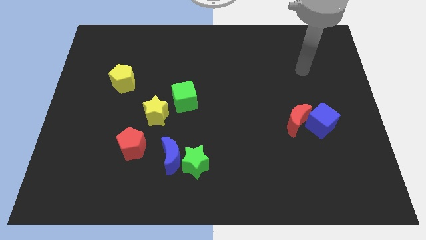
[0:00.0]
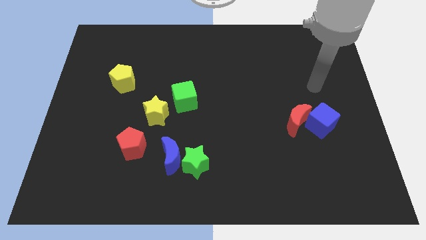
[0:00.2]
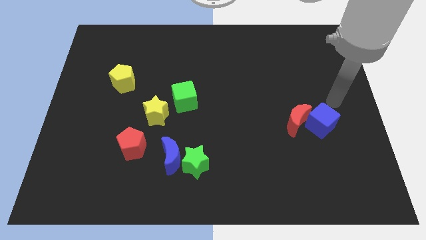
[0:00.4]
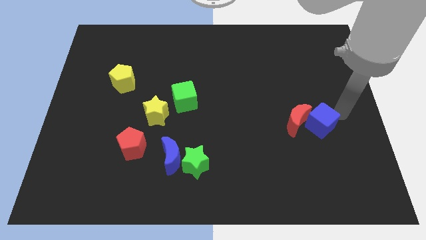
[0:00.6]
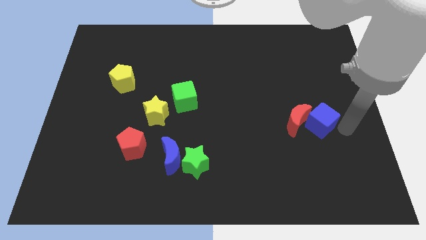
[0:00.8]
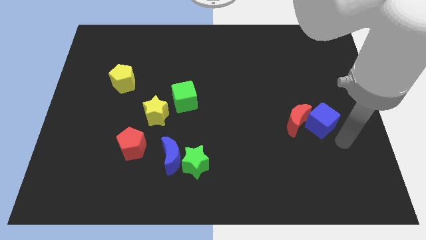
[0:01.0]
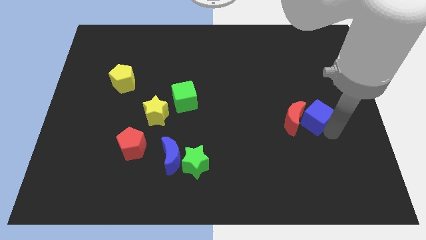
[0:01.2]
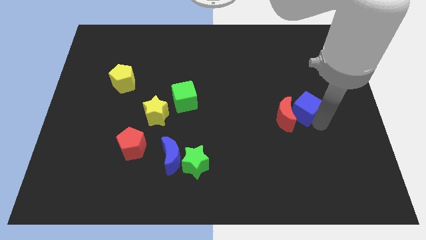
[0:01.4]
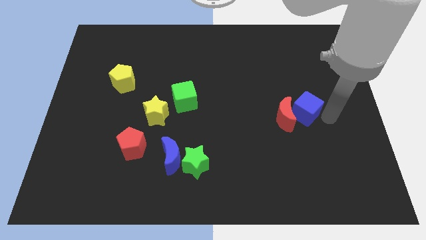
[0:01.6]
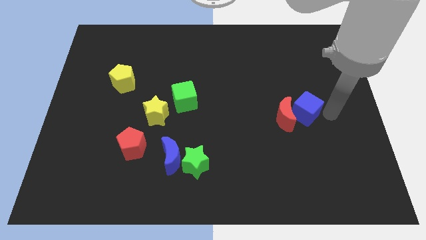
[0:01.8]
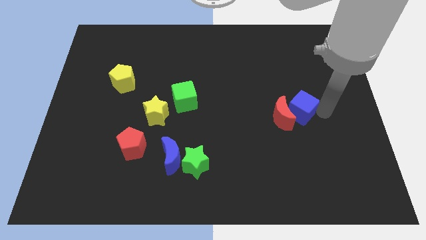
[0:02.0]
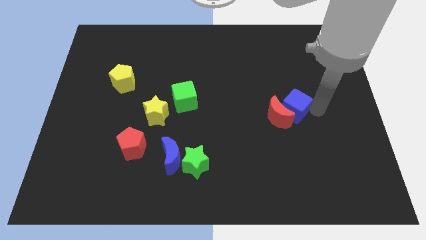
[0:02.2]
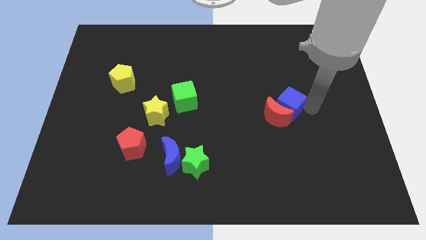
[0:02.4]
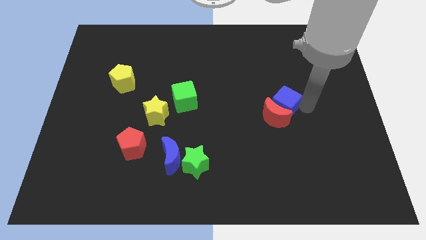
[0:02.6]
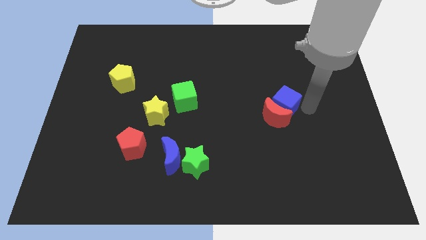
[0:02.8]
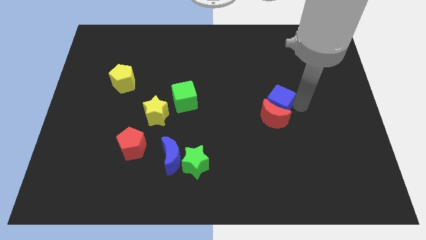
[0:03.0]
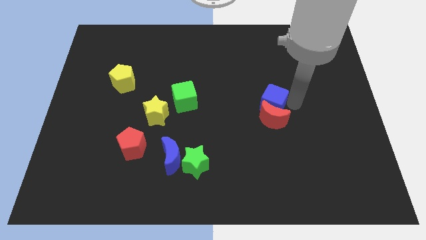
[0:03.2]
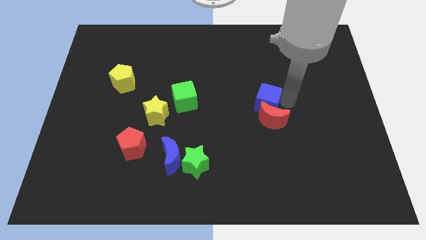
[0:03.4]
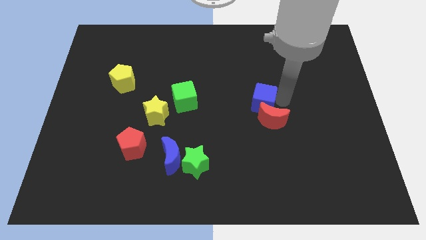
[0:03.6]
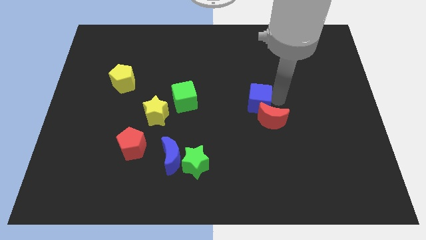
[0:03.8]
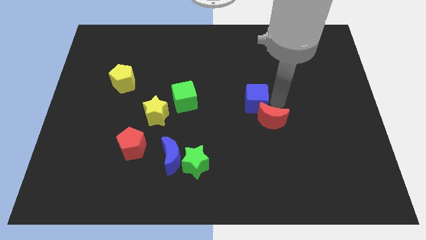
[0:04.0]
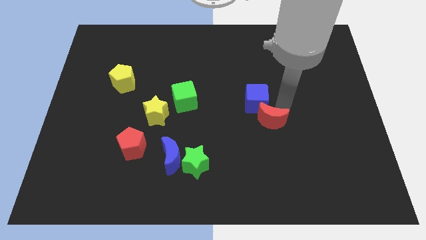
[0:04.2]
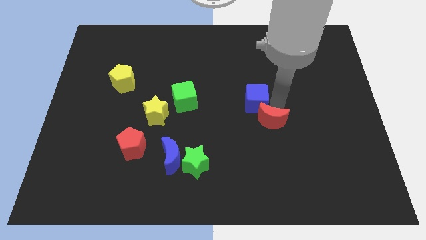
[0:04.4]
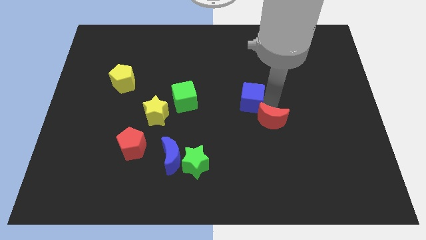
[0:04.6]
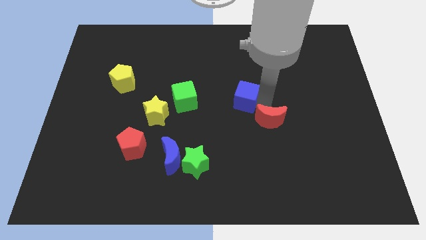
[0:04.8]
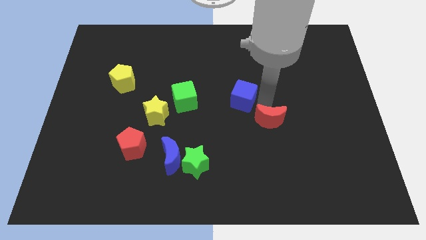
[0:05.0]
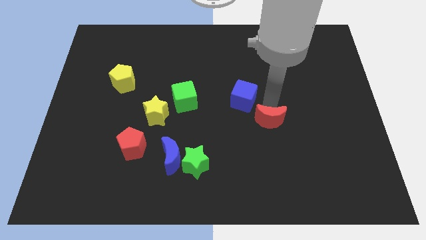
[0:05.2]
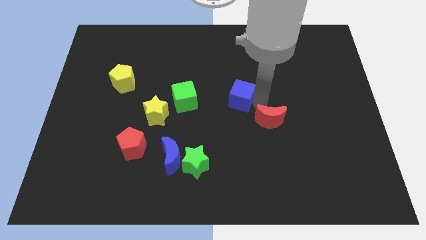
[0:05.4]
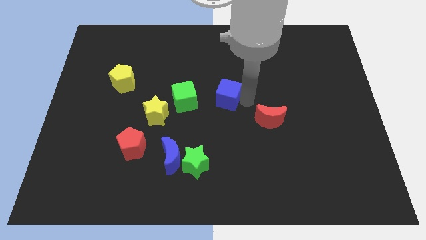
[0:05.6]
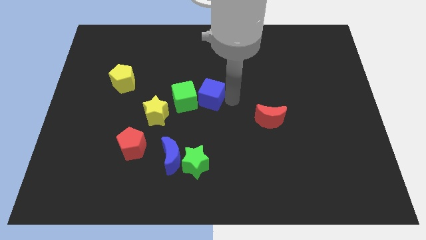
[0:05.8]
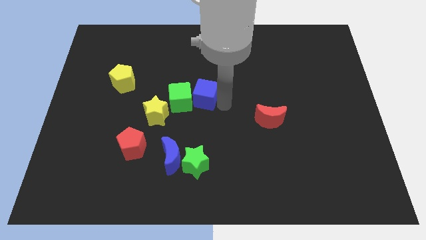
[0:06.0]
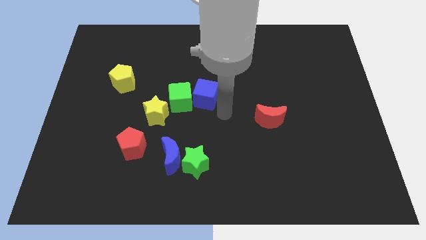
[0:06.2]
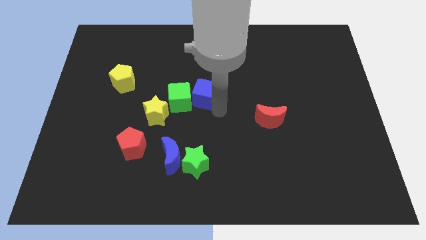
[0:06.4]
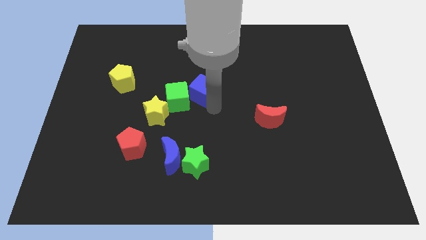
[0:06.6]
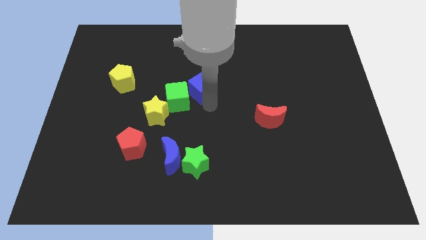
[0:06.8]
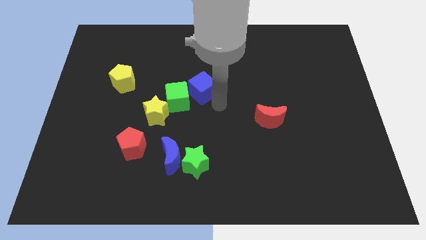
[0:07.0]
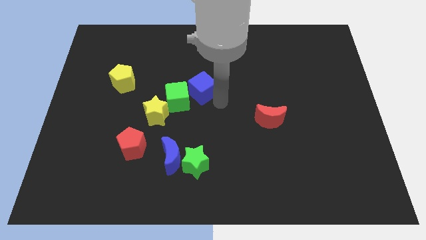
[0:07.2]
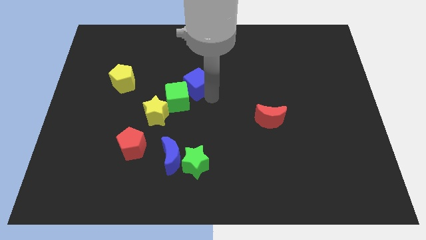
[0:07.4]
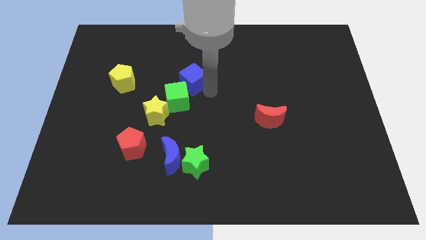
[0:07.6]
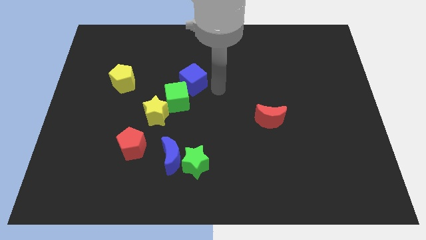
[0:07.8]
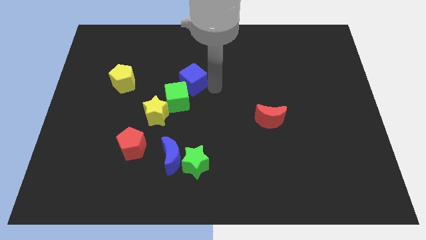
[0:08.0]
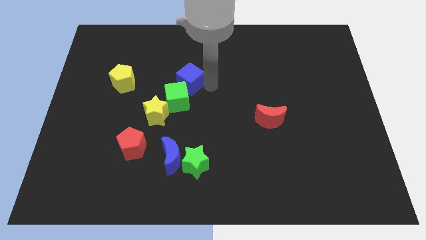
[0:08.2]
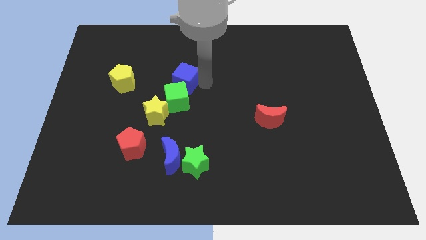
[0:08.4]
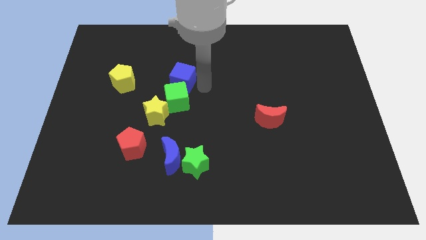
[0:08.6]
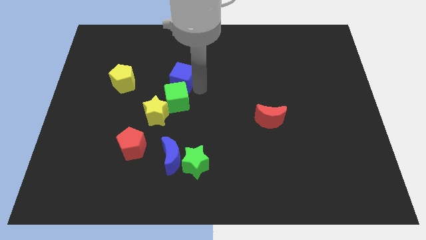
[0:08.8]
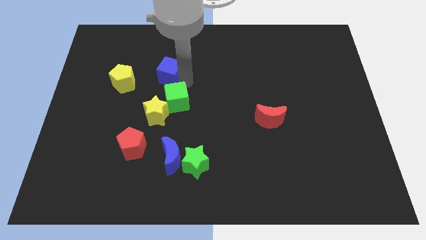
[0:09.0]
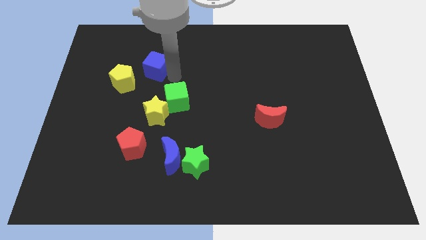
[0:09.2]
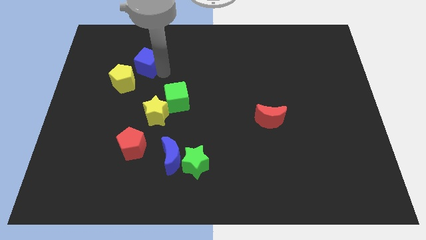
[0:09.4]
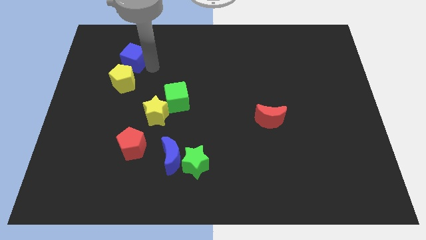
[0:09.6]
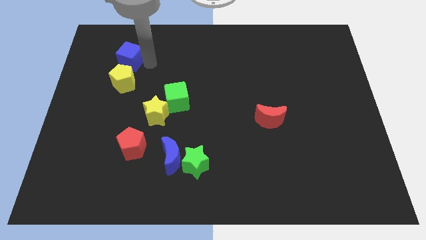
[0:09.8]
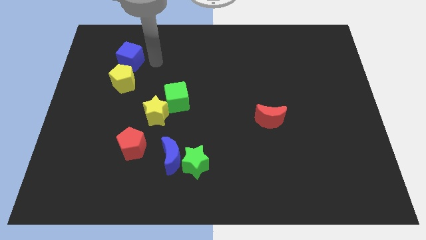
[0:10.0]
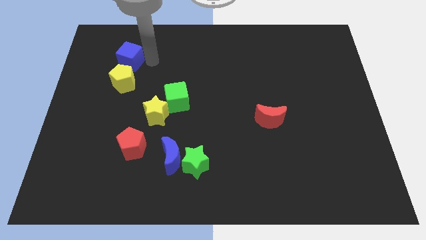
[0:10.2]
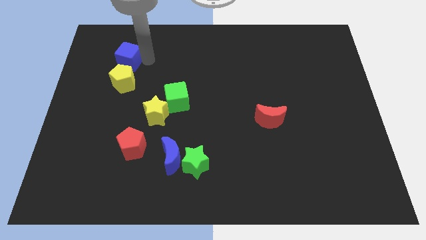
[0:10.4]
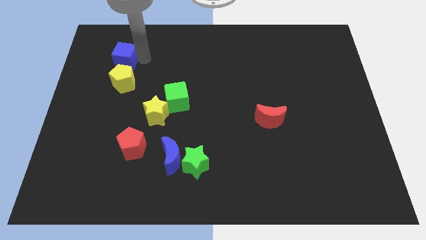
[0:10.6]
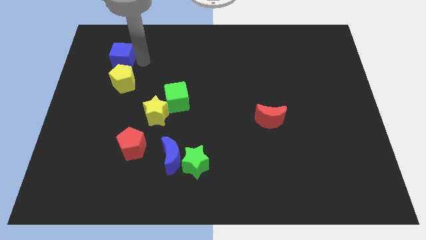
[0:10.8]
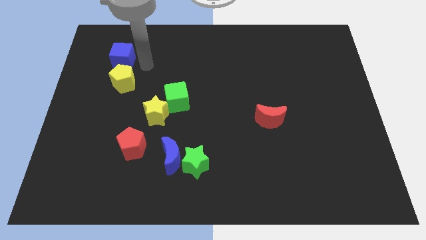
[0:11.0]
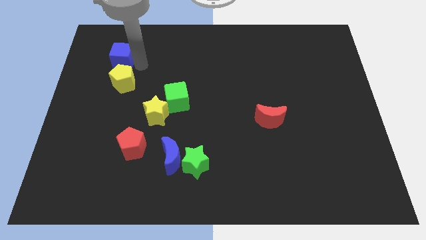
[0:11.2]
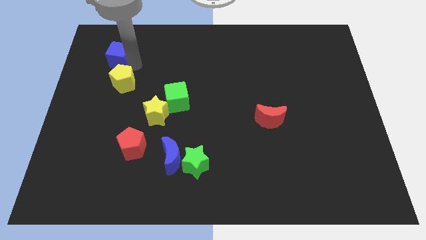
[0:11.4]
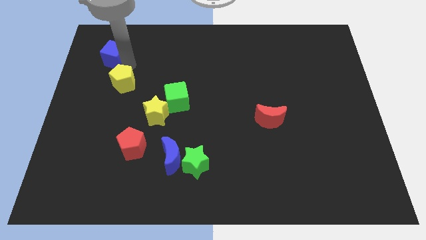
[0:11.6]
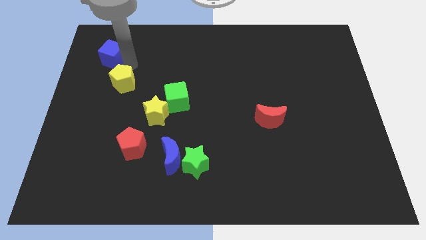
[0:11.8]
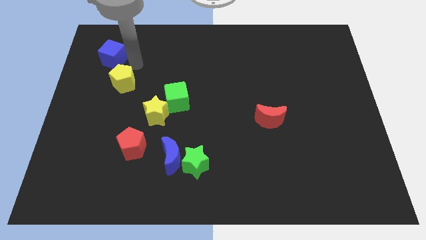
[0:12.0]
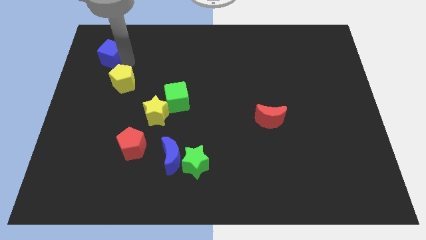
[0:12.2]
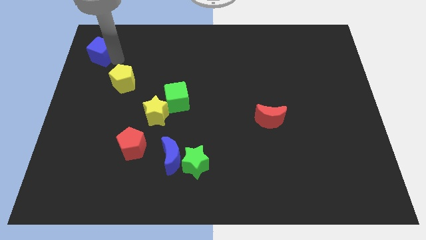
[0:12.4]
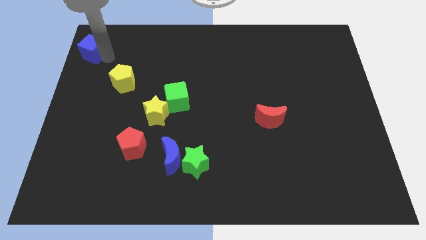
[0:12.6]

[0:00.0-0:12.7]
move the blue cube to the top left

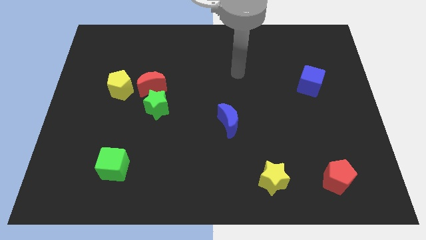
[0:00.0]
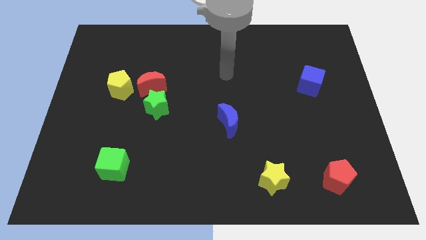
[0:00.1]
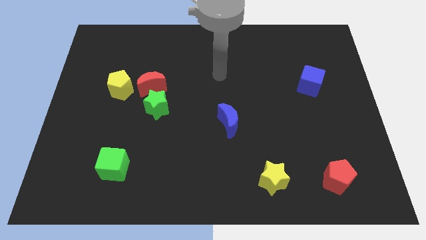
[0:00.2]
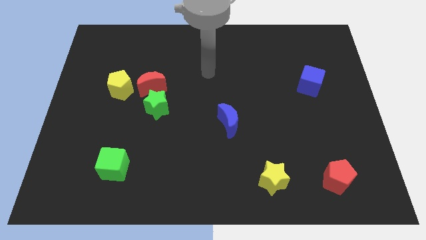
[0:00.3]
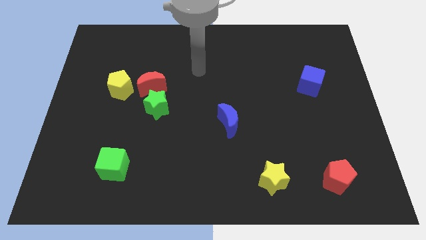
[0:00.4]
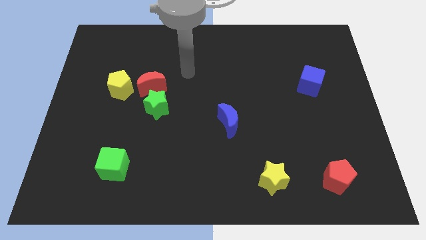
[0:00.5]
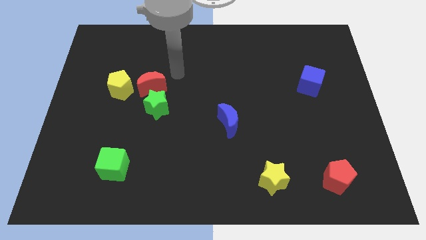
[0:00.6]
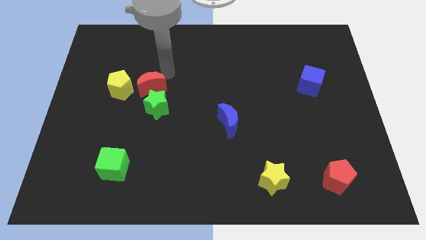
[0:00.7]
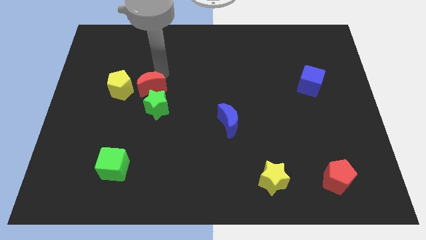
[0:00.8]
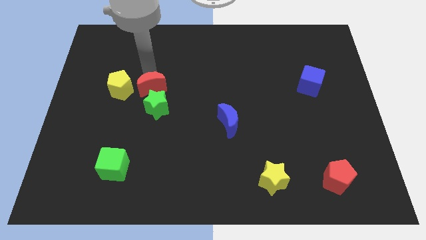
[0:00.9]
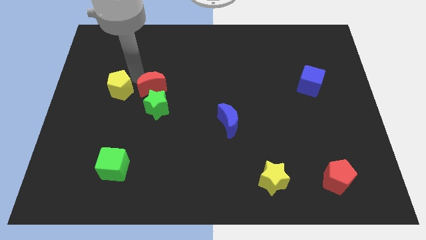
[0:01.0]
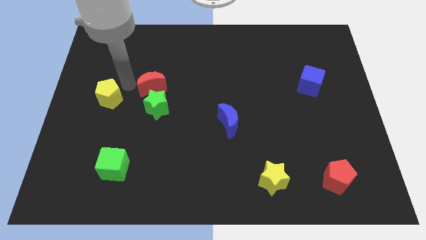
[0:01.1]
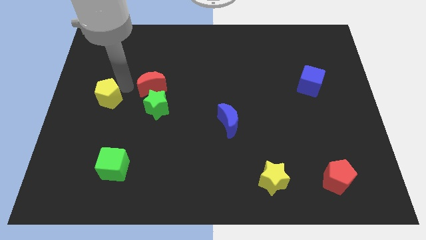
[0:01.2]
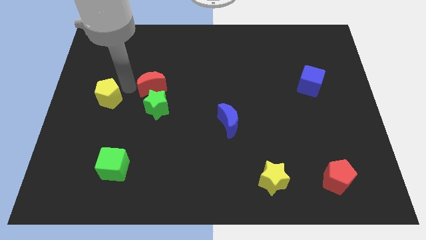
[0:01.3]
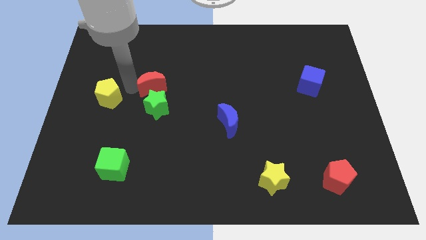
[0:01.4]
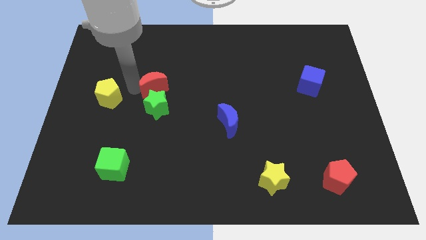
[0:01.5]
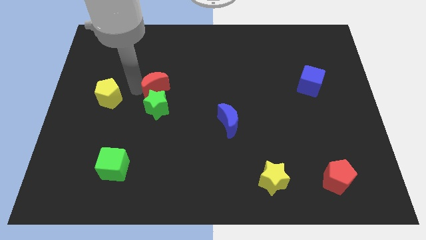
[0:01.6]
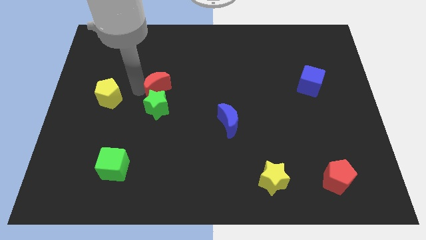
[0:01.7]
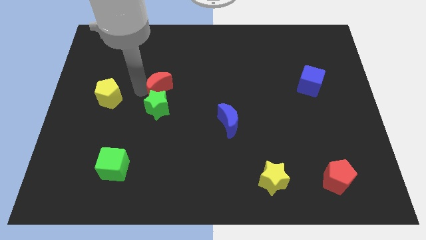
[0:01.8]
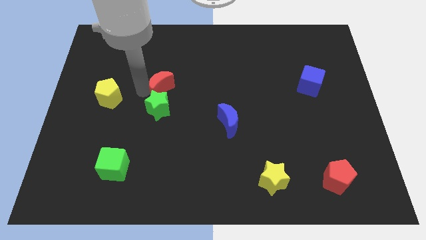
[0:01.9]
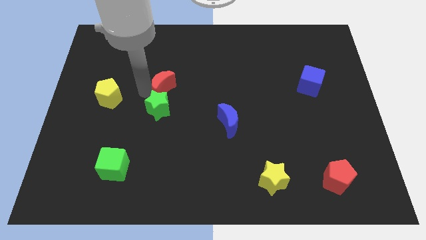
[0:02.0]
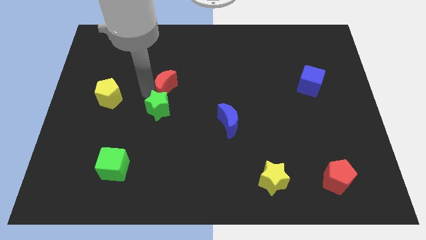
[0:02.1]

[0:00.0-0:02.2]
slide the red moon to the center of the board
